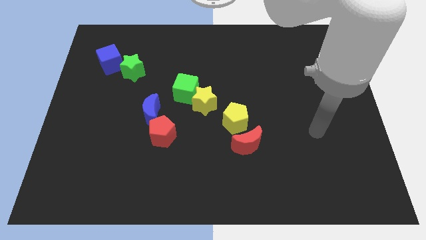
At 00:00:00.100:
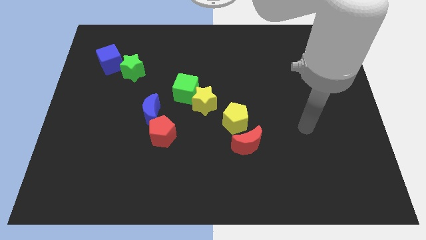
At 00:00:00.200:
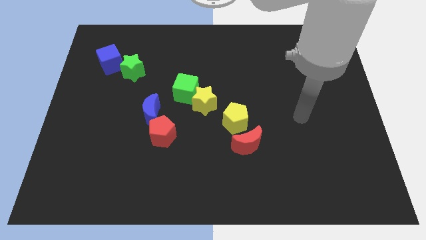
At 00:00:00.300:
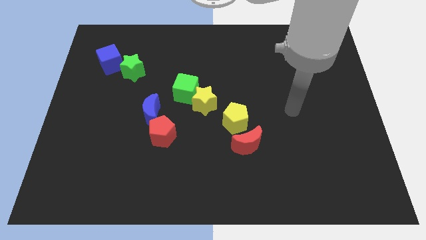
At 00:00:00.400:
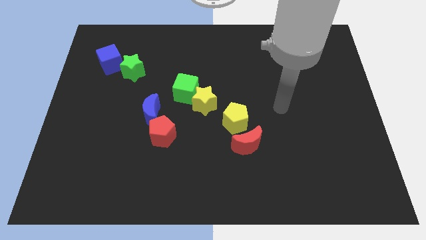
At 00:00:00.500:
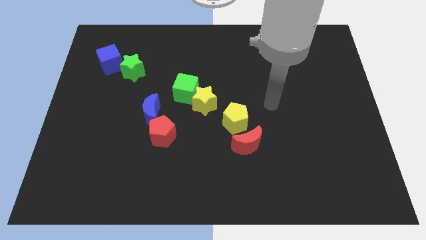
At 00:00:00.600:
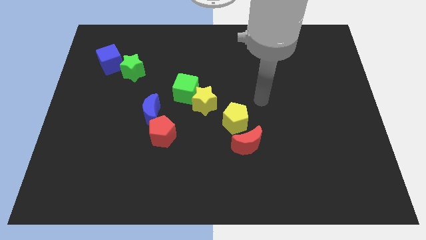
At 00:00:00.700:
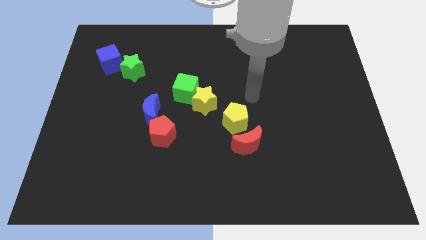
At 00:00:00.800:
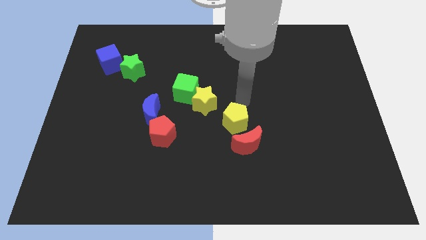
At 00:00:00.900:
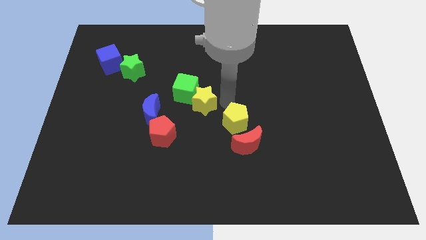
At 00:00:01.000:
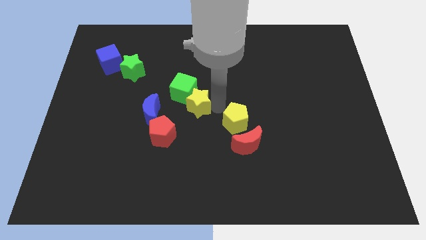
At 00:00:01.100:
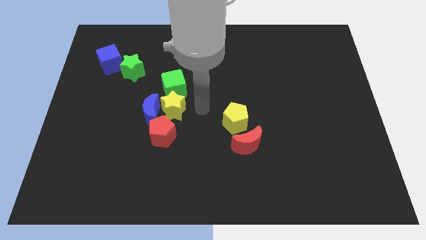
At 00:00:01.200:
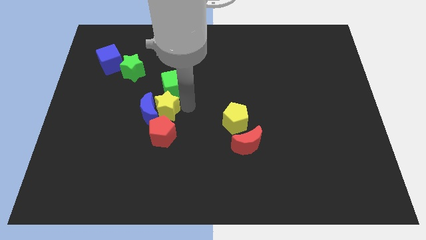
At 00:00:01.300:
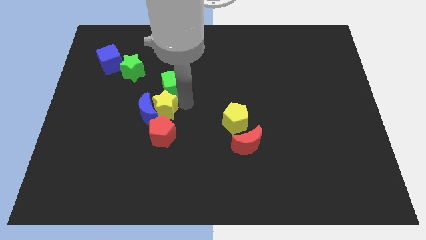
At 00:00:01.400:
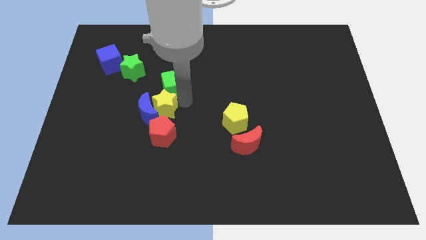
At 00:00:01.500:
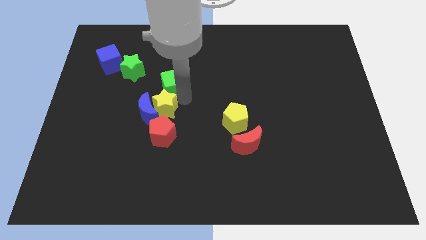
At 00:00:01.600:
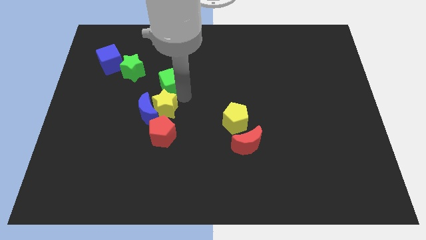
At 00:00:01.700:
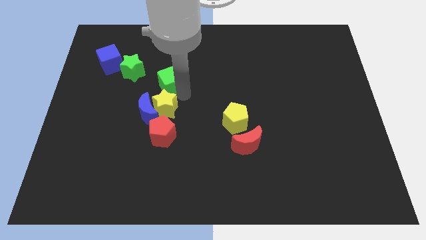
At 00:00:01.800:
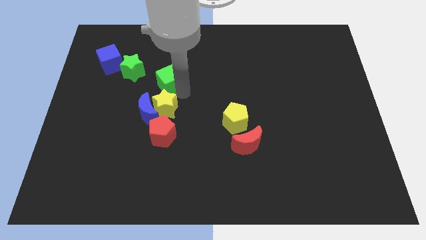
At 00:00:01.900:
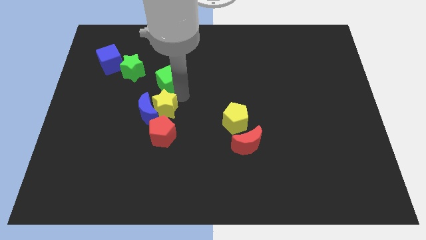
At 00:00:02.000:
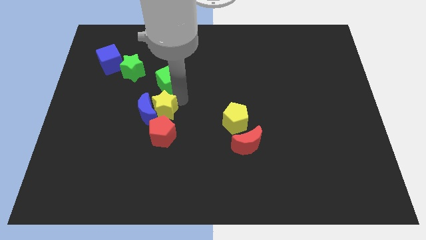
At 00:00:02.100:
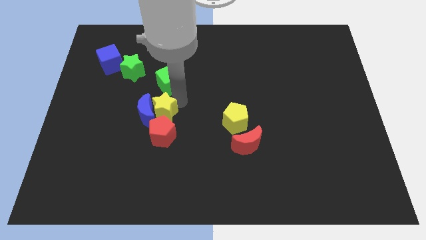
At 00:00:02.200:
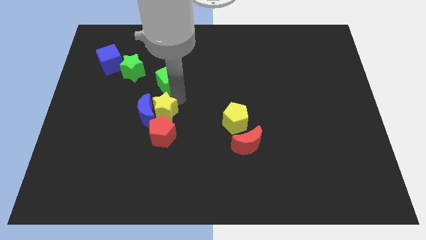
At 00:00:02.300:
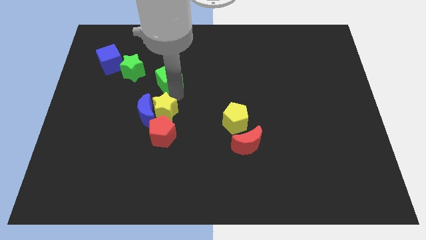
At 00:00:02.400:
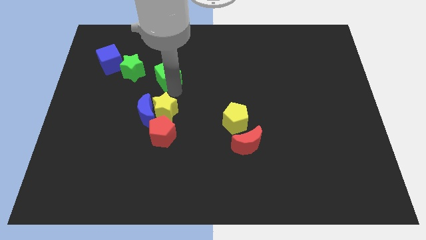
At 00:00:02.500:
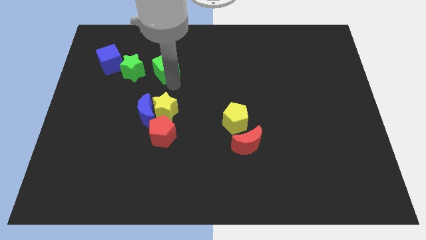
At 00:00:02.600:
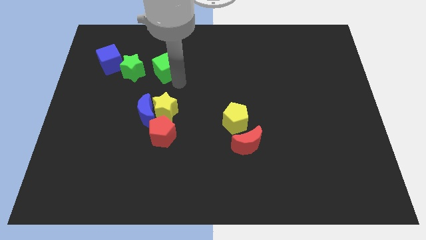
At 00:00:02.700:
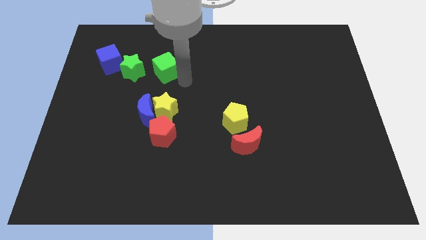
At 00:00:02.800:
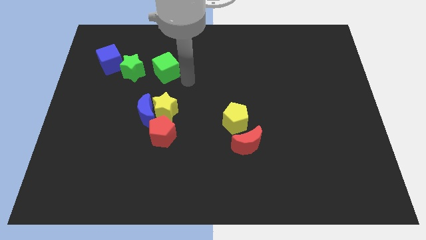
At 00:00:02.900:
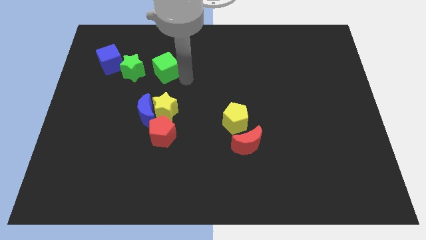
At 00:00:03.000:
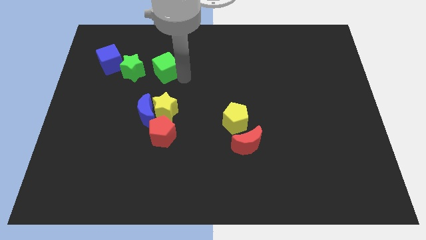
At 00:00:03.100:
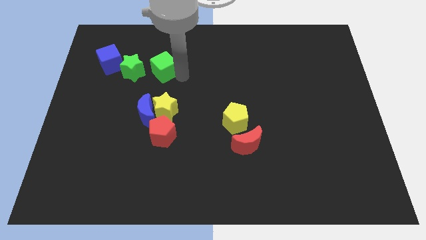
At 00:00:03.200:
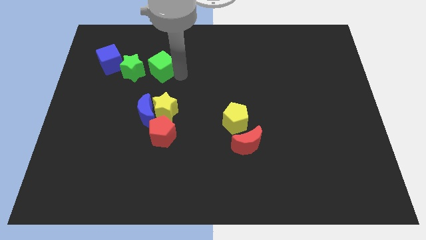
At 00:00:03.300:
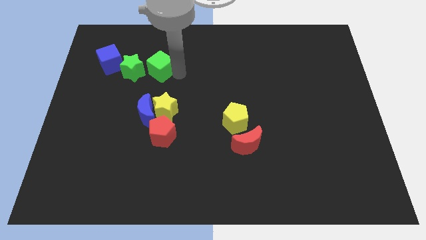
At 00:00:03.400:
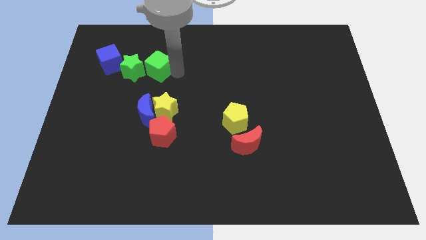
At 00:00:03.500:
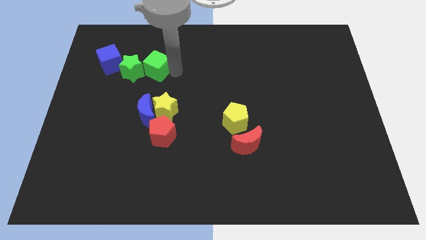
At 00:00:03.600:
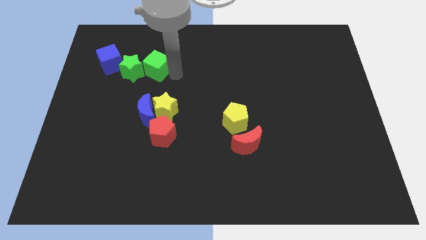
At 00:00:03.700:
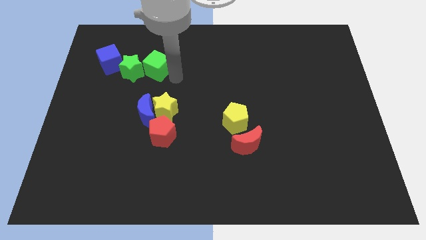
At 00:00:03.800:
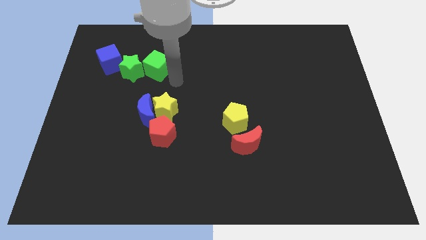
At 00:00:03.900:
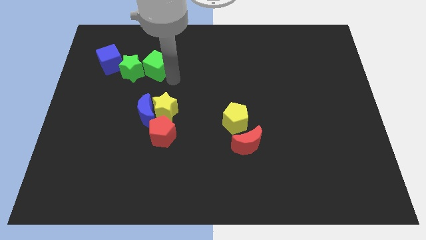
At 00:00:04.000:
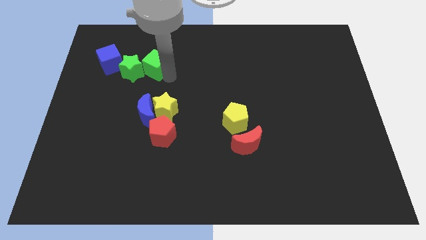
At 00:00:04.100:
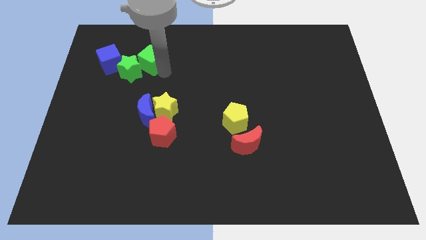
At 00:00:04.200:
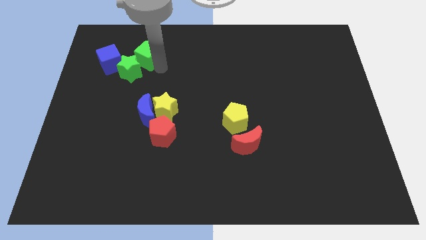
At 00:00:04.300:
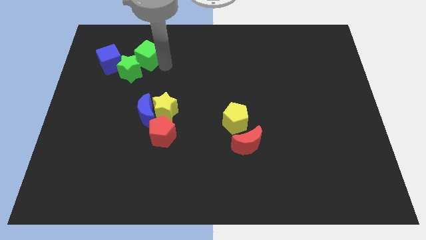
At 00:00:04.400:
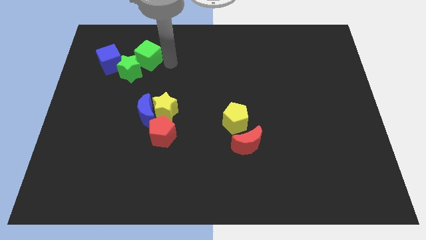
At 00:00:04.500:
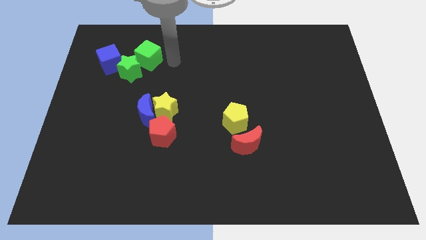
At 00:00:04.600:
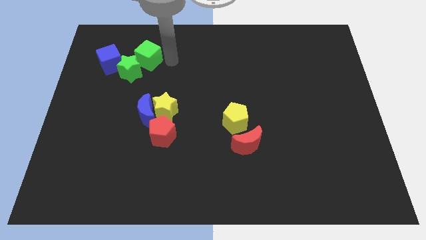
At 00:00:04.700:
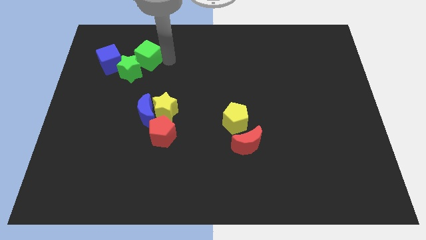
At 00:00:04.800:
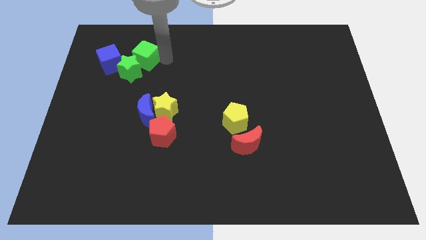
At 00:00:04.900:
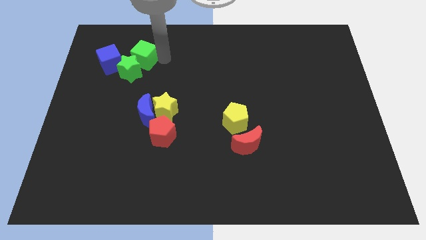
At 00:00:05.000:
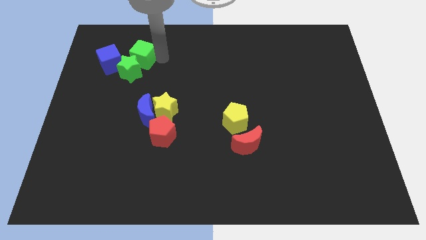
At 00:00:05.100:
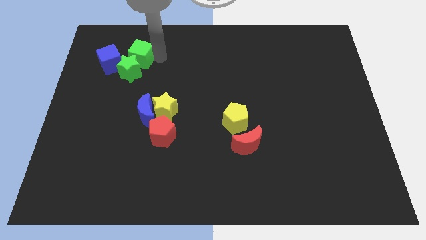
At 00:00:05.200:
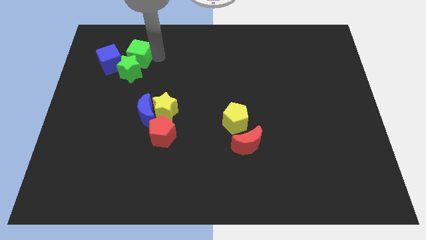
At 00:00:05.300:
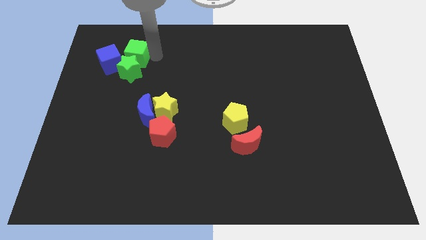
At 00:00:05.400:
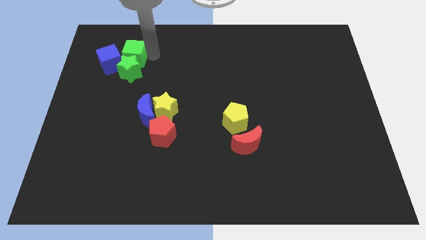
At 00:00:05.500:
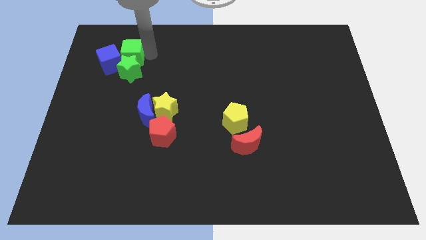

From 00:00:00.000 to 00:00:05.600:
push the green cube to the blue cube

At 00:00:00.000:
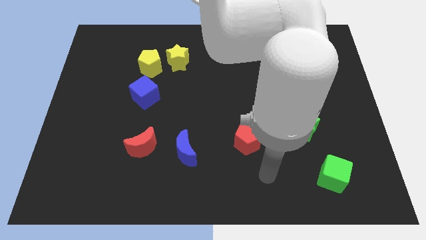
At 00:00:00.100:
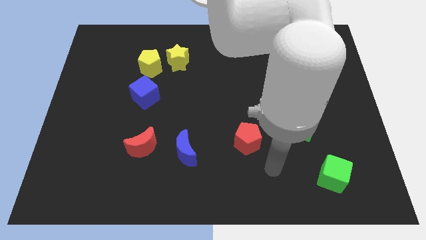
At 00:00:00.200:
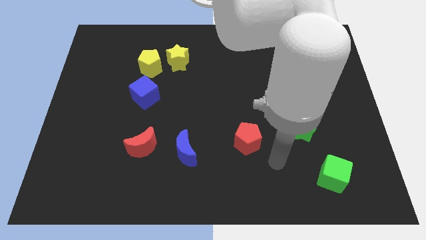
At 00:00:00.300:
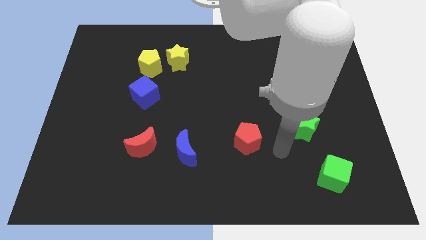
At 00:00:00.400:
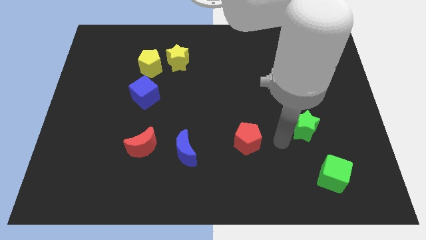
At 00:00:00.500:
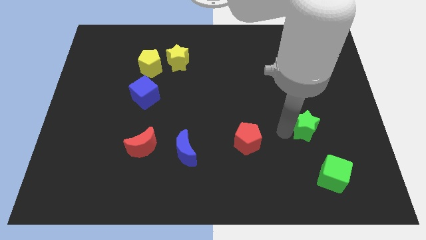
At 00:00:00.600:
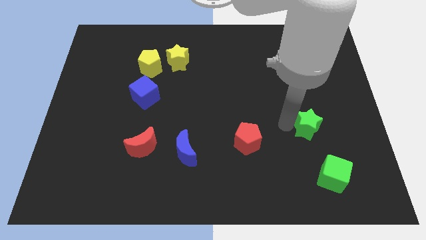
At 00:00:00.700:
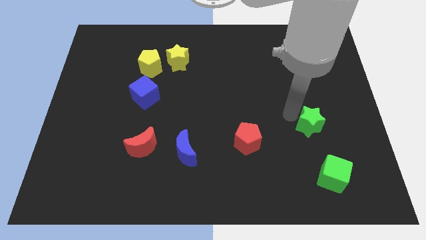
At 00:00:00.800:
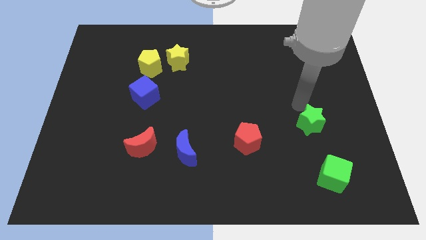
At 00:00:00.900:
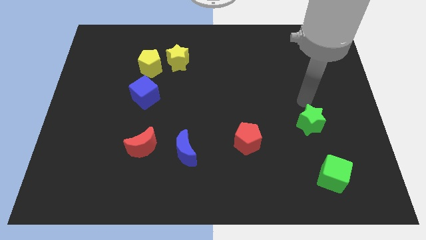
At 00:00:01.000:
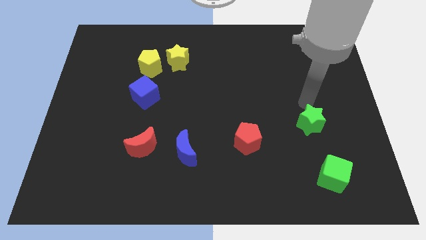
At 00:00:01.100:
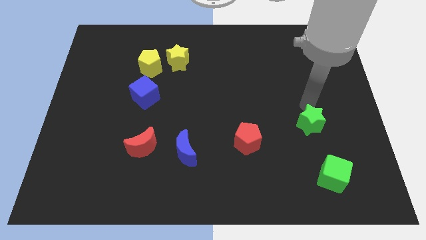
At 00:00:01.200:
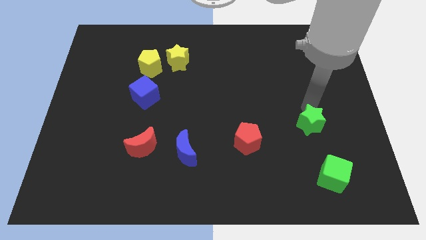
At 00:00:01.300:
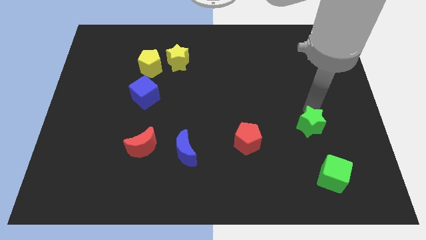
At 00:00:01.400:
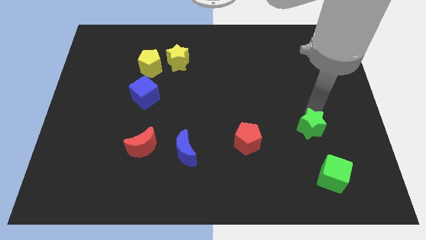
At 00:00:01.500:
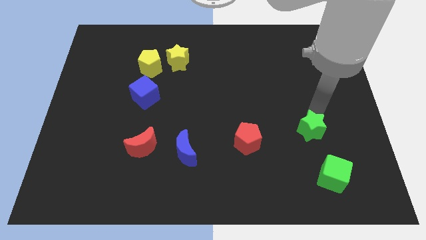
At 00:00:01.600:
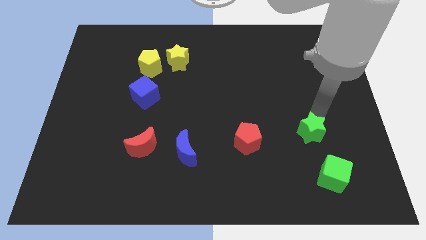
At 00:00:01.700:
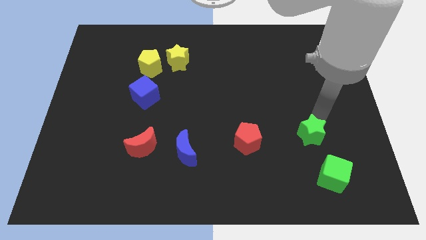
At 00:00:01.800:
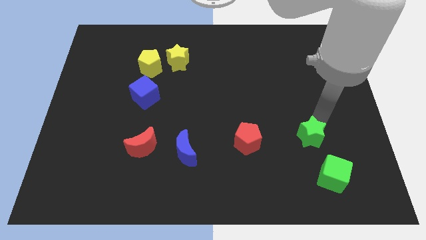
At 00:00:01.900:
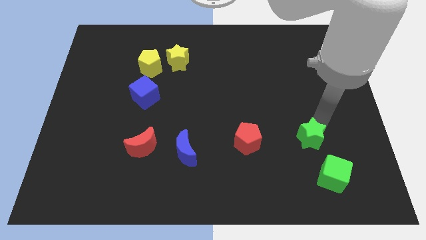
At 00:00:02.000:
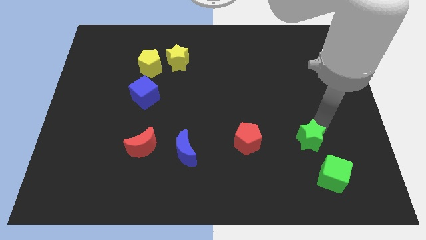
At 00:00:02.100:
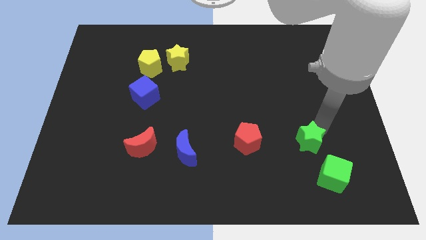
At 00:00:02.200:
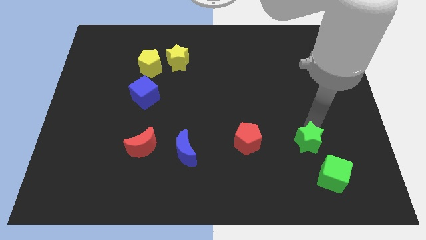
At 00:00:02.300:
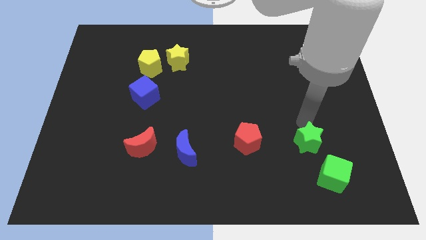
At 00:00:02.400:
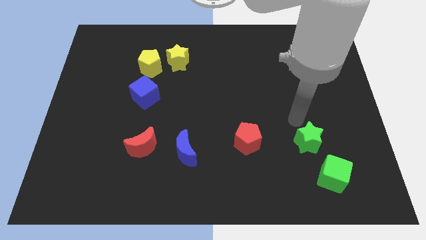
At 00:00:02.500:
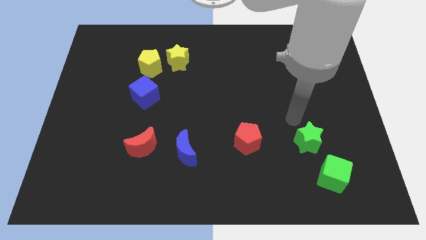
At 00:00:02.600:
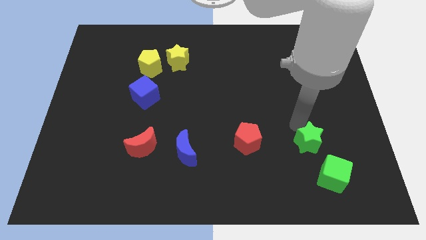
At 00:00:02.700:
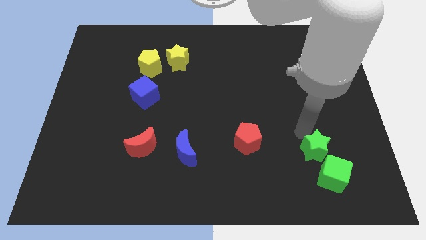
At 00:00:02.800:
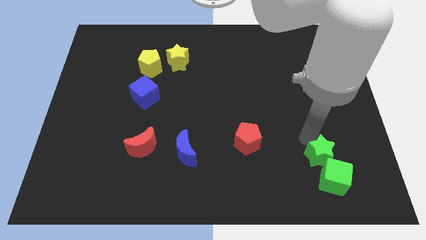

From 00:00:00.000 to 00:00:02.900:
slide the green star next to the green cube
